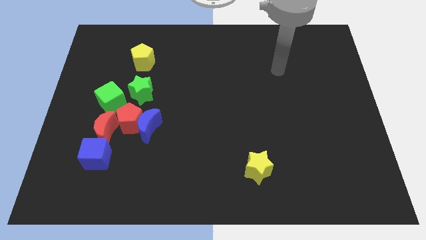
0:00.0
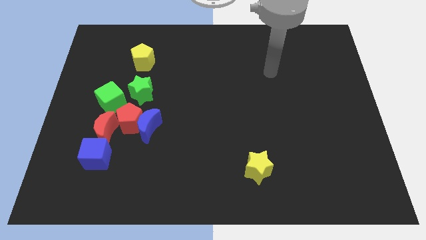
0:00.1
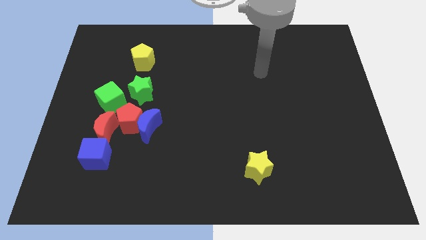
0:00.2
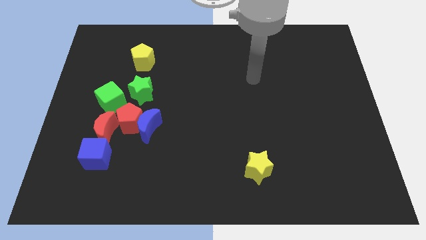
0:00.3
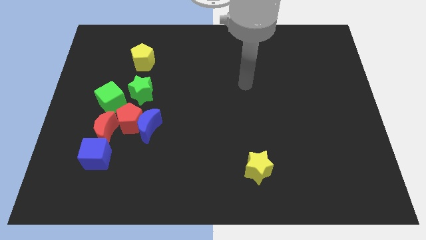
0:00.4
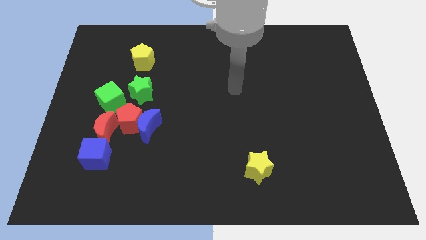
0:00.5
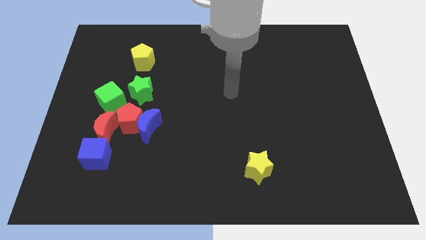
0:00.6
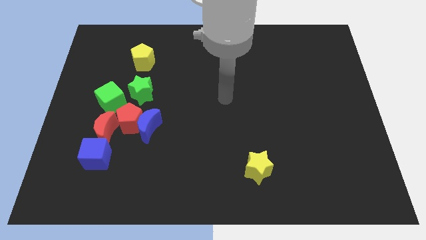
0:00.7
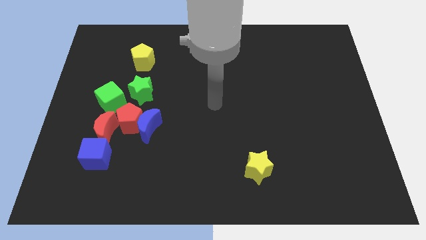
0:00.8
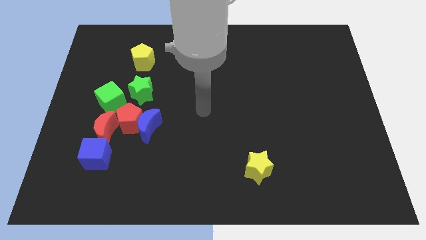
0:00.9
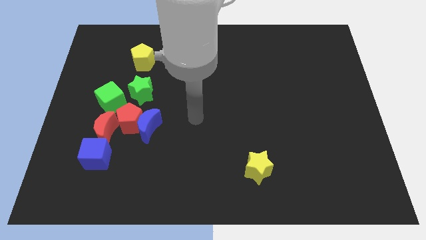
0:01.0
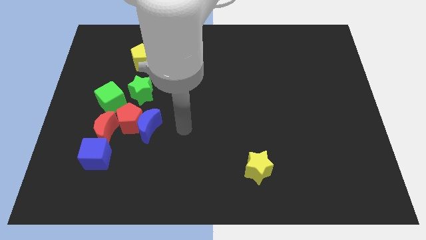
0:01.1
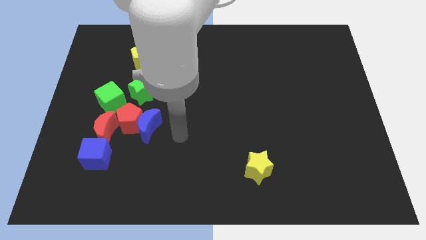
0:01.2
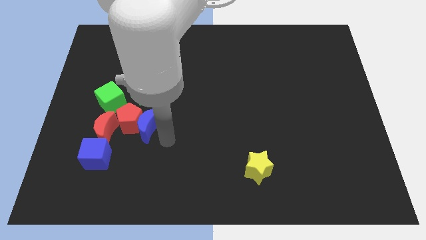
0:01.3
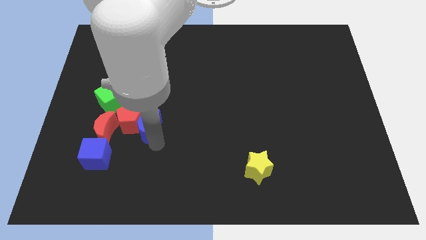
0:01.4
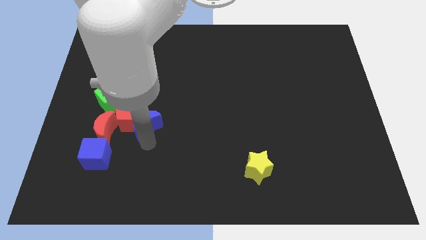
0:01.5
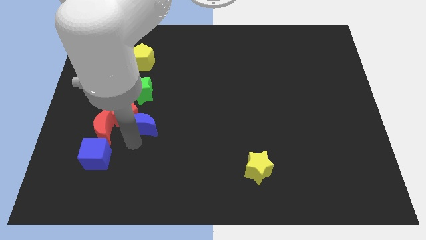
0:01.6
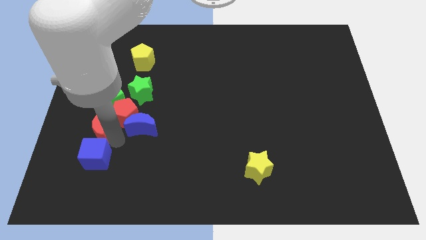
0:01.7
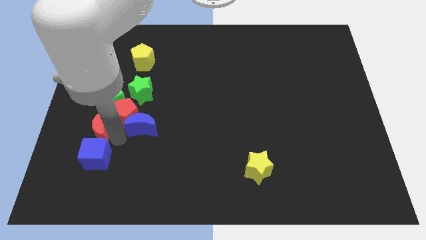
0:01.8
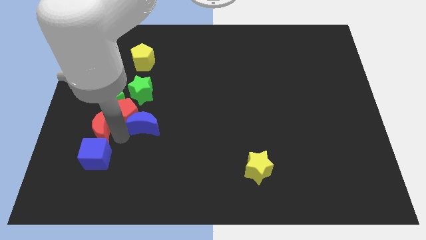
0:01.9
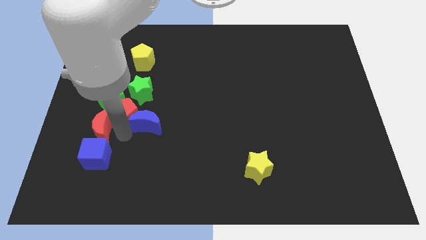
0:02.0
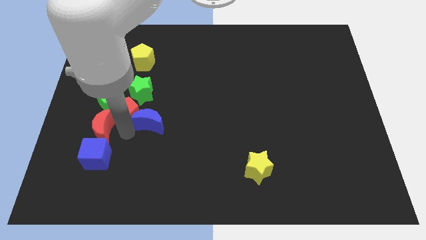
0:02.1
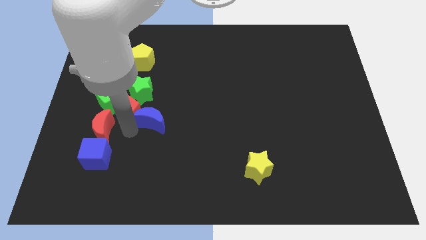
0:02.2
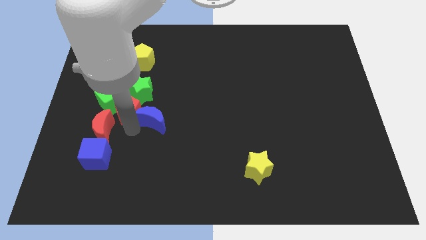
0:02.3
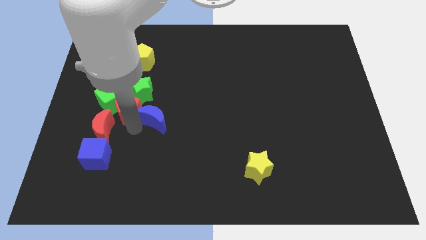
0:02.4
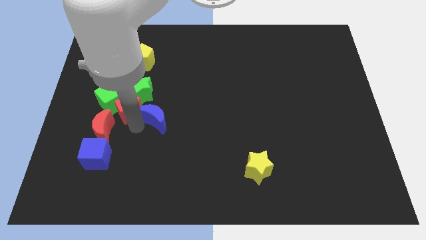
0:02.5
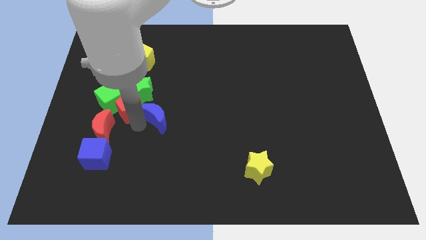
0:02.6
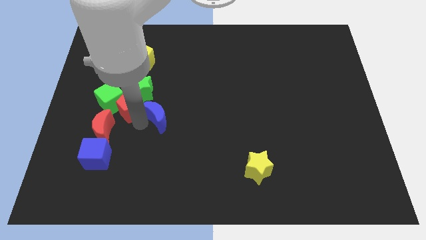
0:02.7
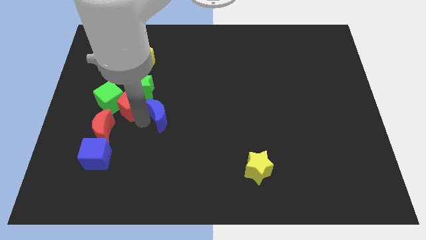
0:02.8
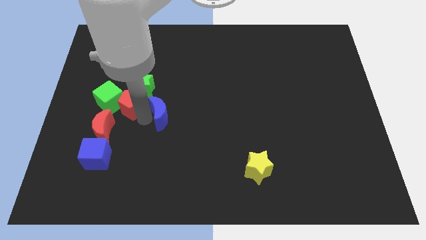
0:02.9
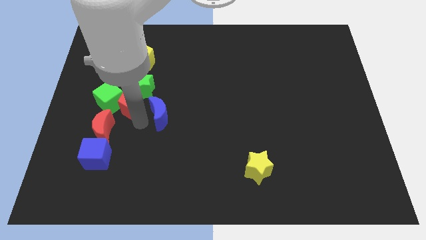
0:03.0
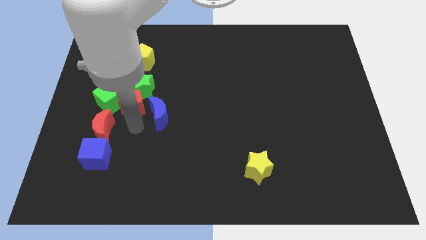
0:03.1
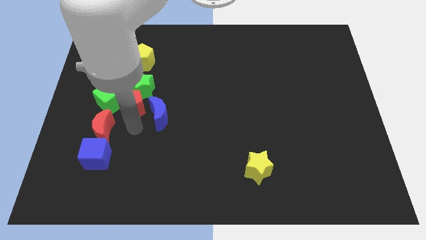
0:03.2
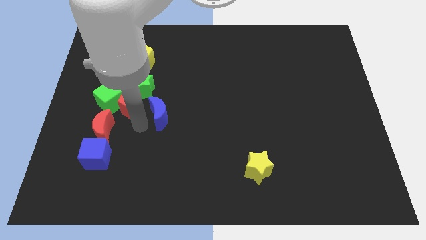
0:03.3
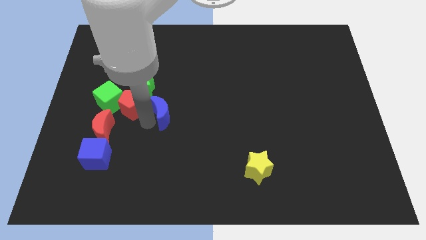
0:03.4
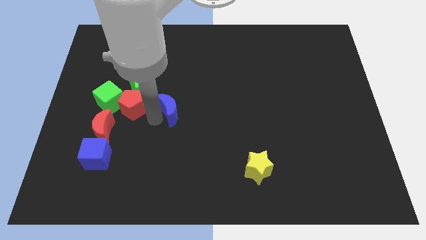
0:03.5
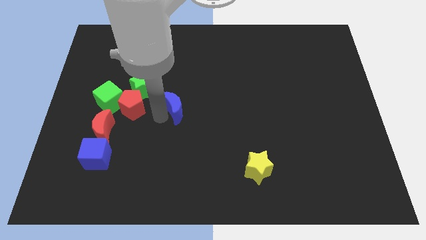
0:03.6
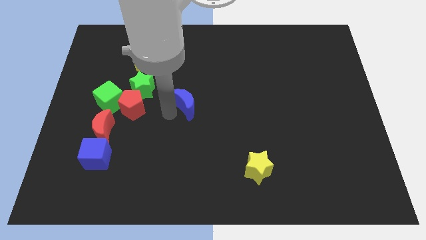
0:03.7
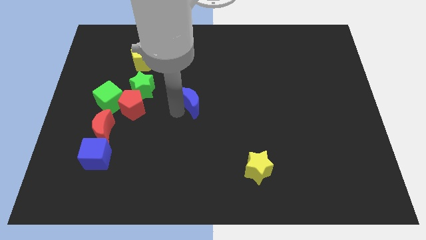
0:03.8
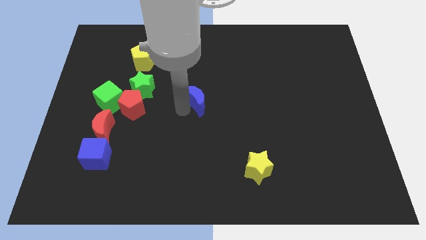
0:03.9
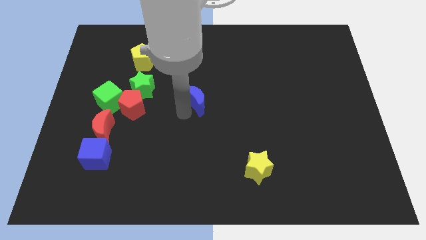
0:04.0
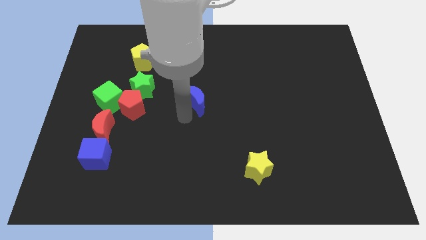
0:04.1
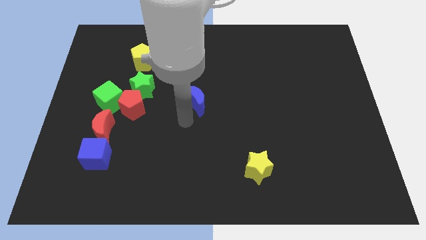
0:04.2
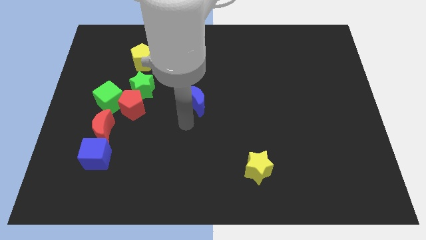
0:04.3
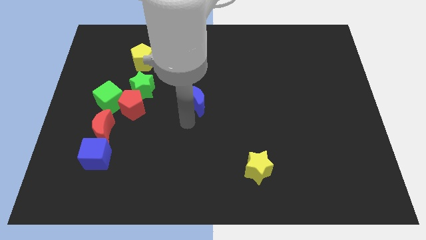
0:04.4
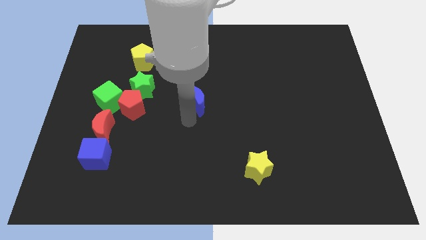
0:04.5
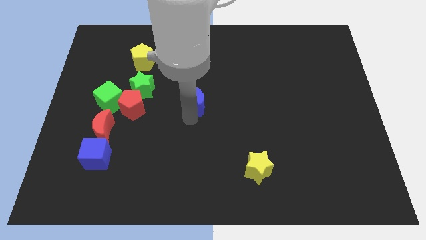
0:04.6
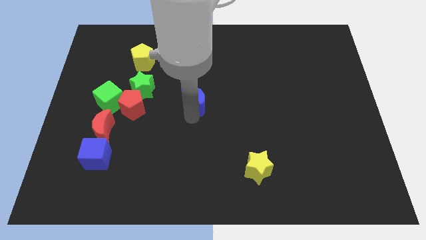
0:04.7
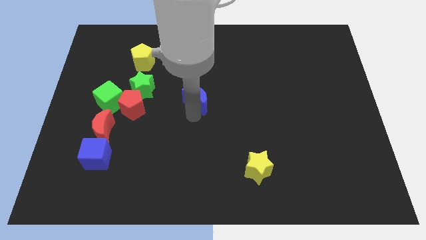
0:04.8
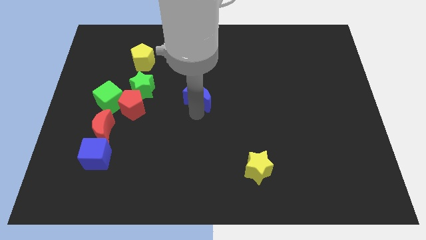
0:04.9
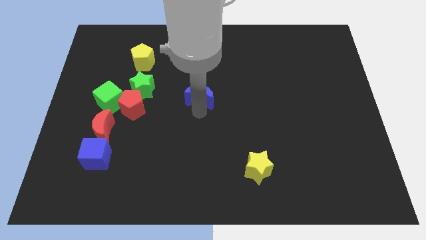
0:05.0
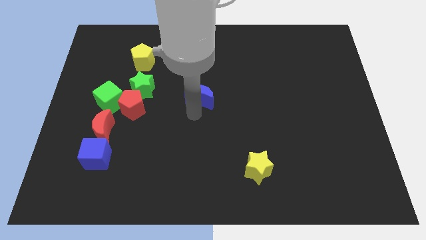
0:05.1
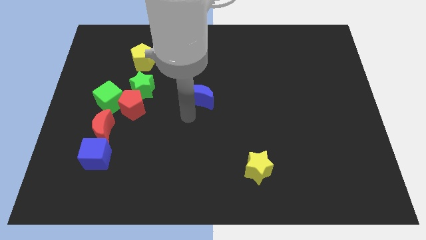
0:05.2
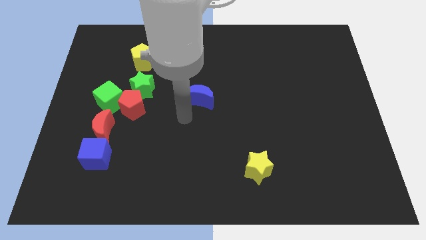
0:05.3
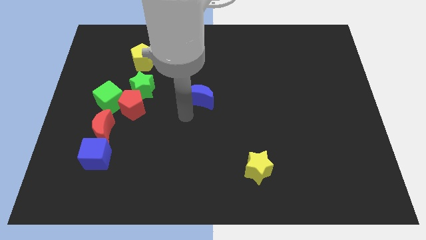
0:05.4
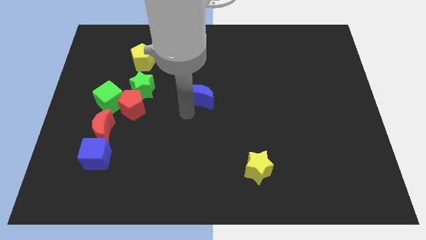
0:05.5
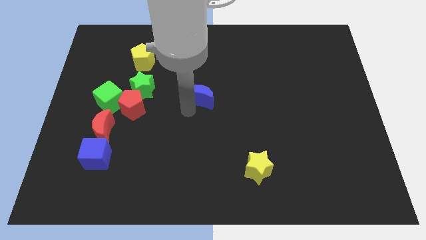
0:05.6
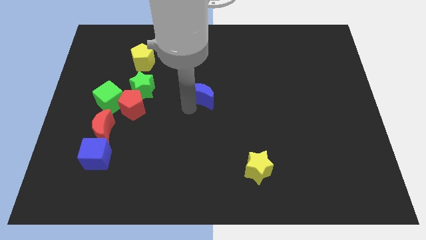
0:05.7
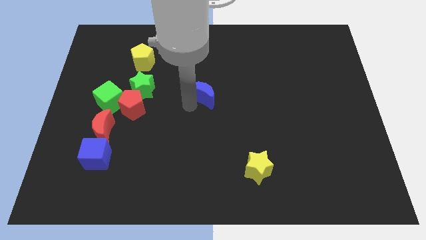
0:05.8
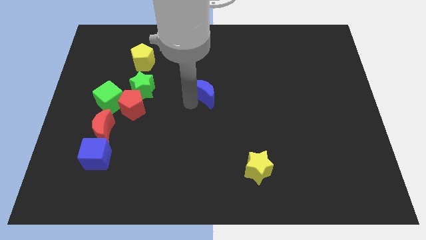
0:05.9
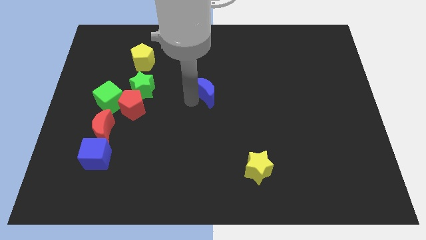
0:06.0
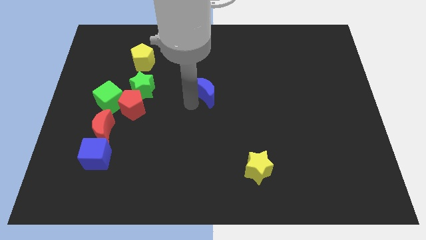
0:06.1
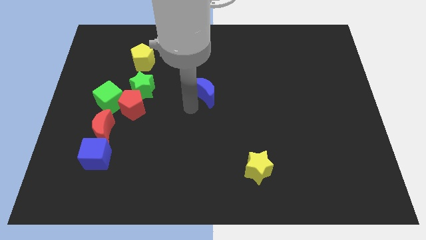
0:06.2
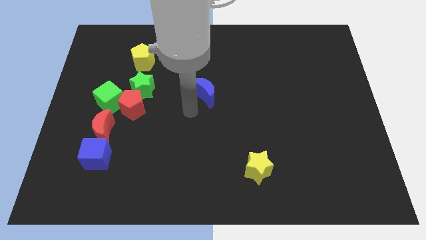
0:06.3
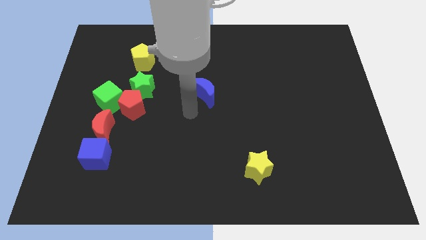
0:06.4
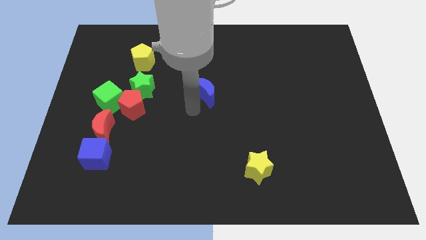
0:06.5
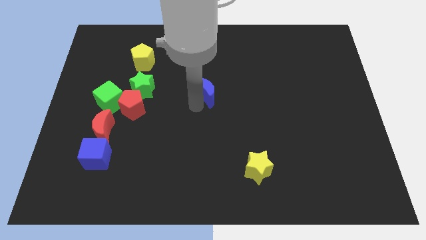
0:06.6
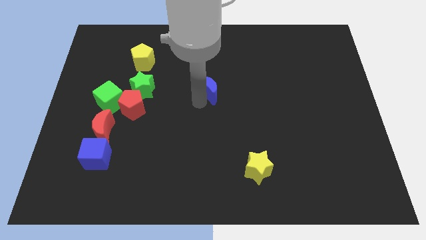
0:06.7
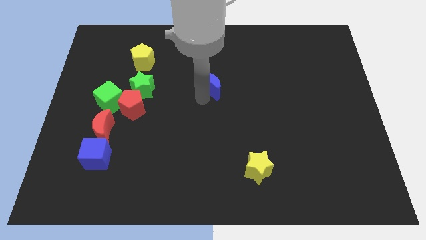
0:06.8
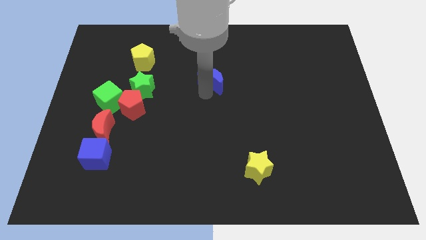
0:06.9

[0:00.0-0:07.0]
push the blue moon up and then to the right

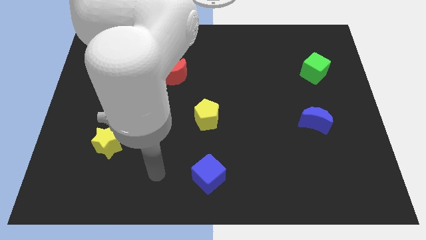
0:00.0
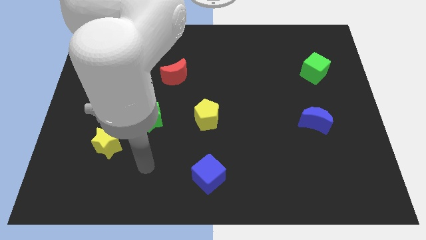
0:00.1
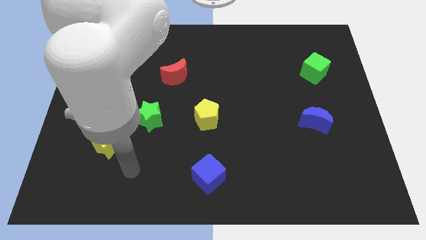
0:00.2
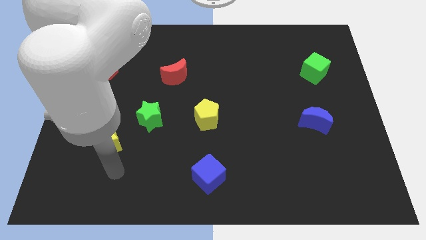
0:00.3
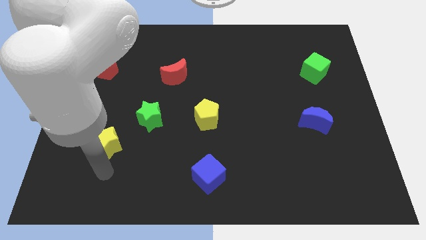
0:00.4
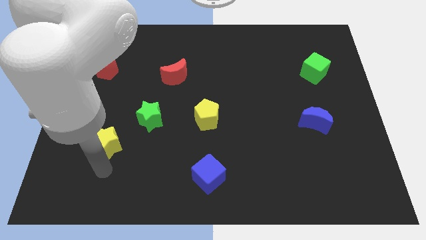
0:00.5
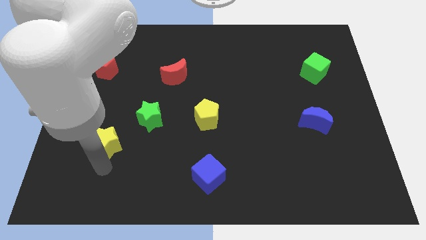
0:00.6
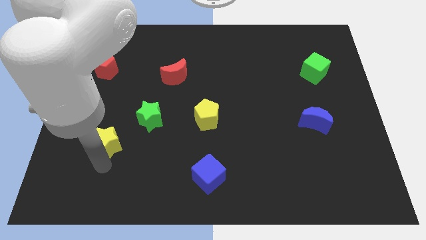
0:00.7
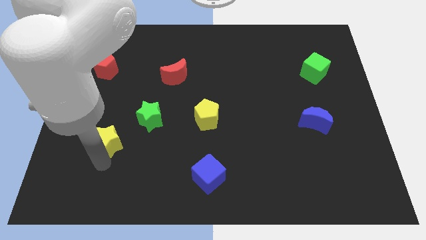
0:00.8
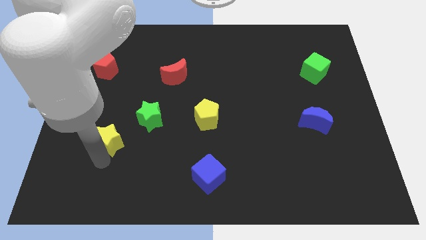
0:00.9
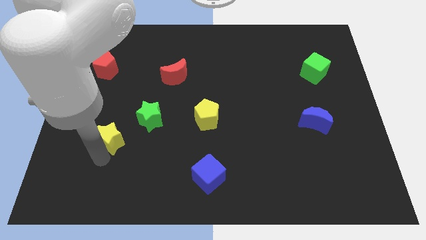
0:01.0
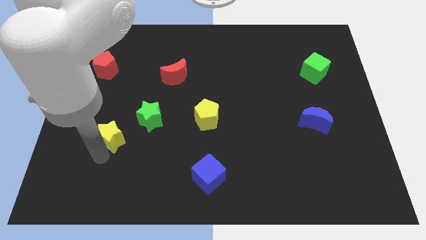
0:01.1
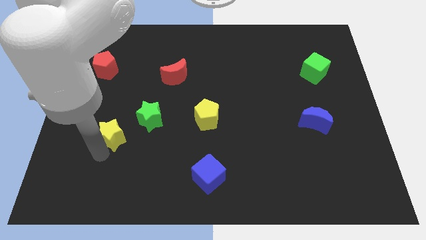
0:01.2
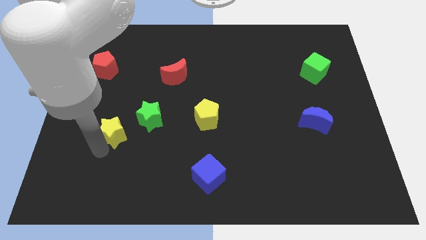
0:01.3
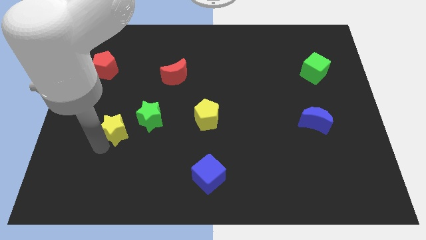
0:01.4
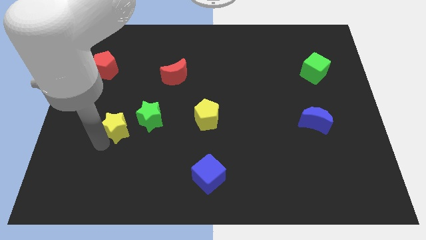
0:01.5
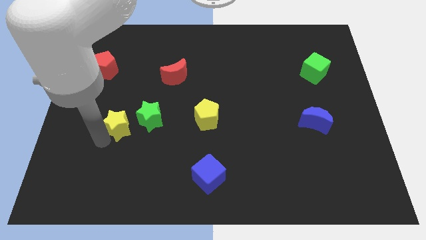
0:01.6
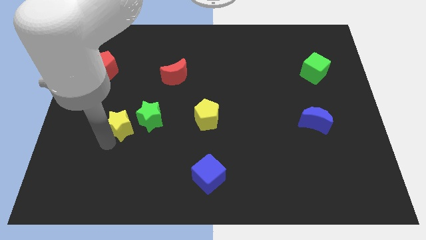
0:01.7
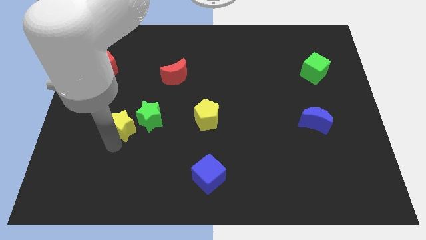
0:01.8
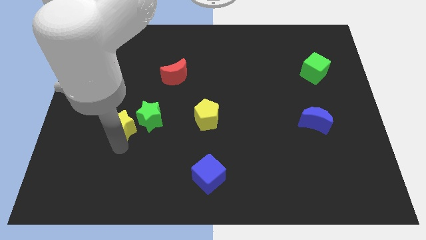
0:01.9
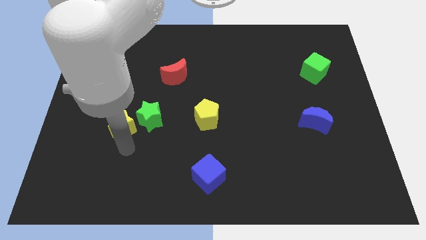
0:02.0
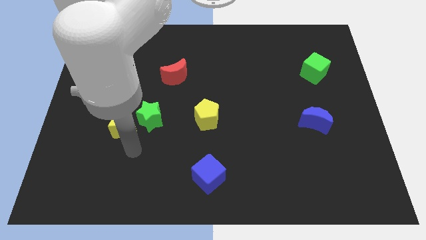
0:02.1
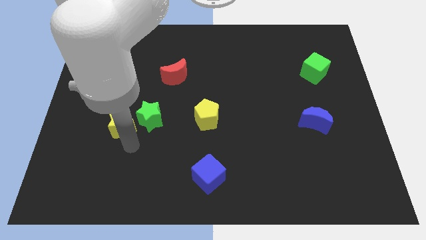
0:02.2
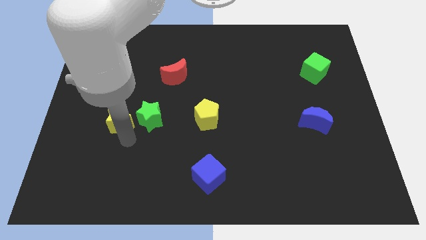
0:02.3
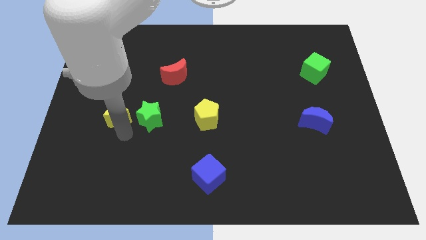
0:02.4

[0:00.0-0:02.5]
push the yellow star upwards somewhat
